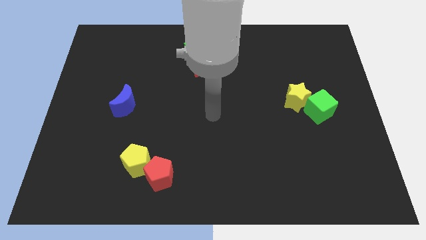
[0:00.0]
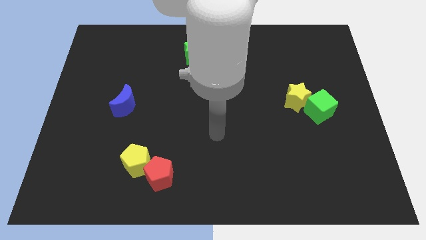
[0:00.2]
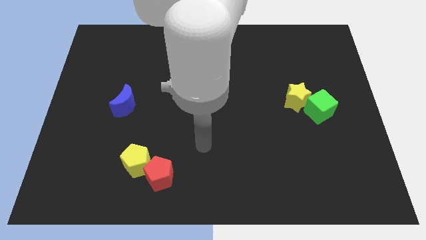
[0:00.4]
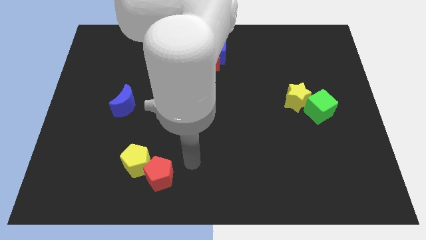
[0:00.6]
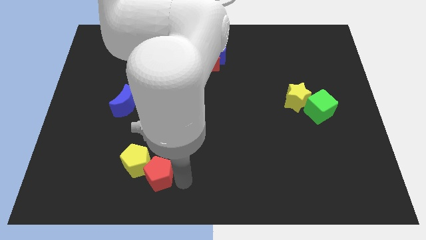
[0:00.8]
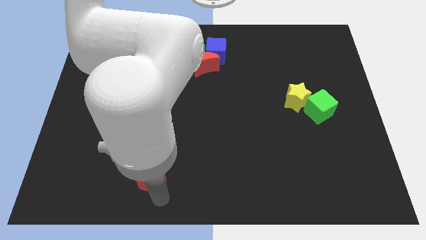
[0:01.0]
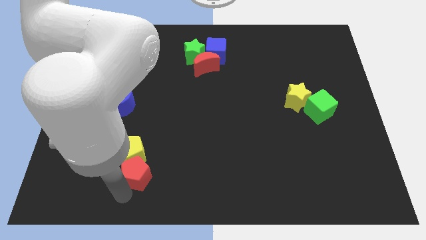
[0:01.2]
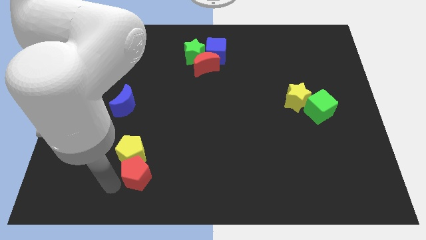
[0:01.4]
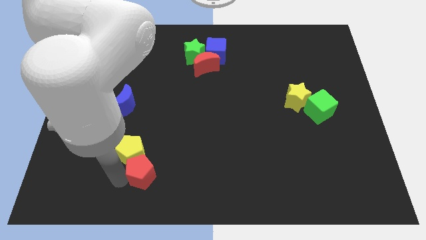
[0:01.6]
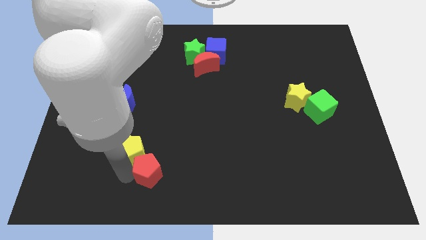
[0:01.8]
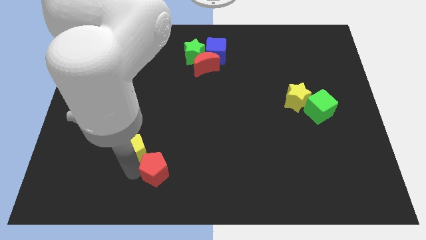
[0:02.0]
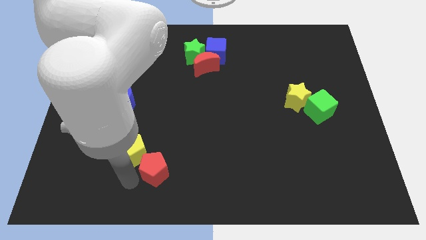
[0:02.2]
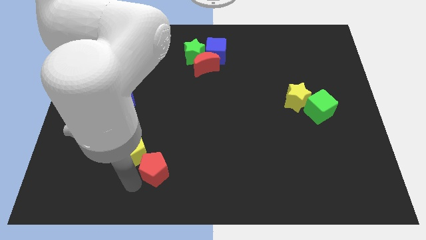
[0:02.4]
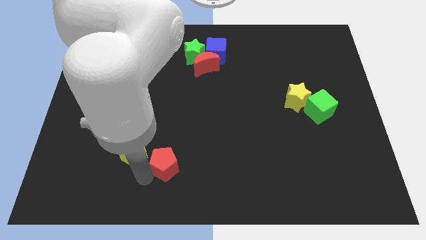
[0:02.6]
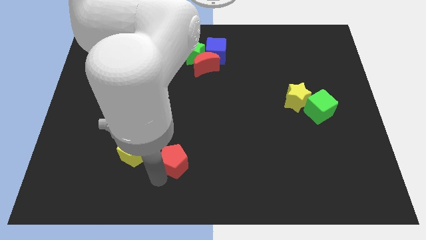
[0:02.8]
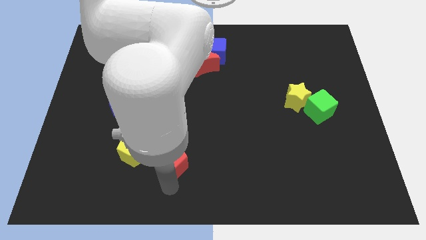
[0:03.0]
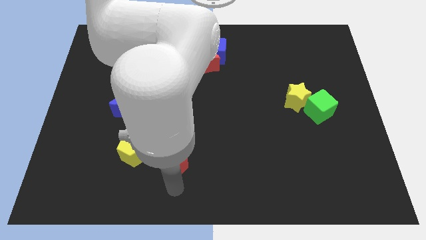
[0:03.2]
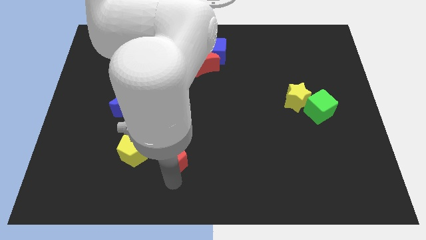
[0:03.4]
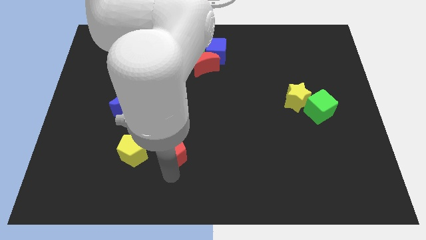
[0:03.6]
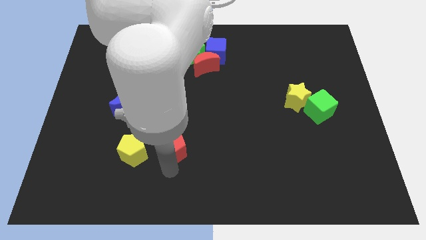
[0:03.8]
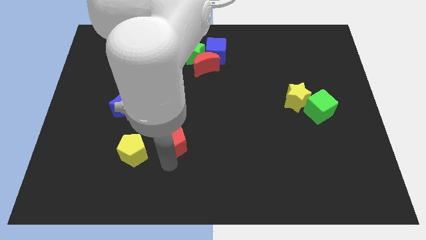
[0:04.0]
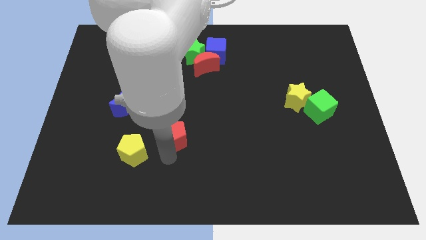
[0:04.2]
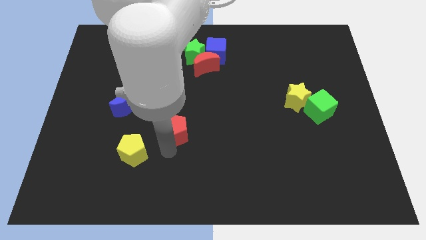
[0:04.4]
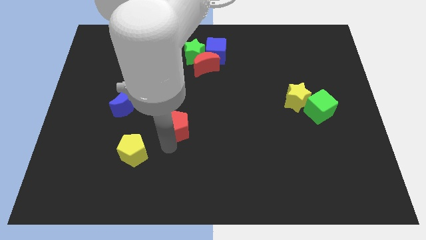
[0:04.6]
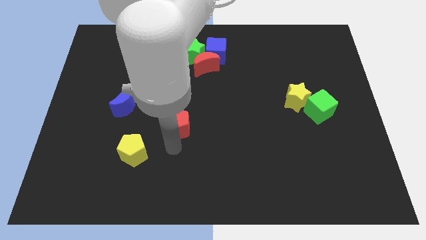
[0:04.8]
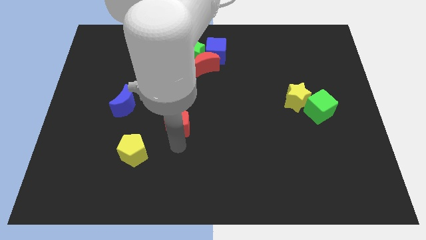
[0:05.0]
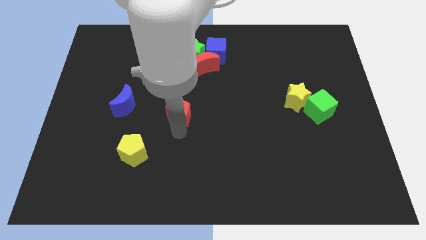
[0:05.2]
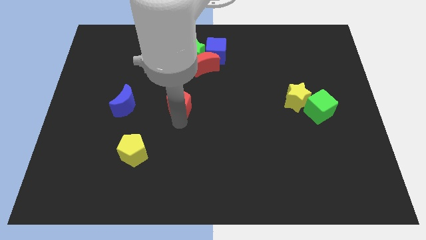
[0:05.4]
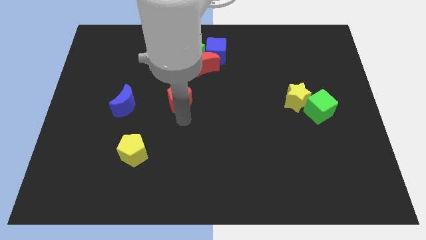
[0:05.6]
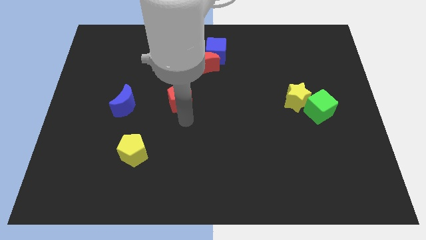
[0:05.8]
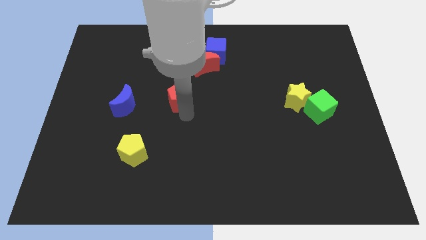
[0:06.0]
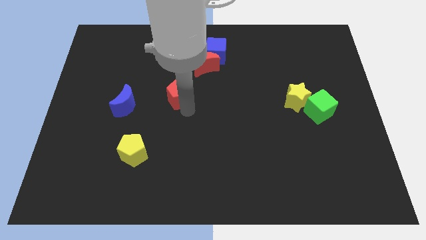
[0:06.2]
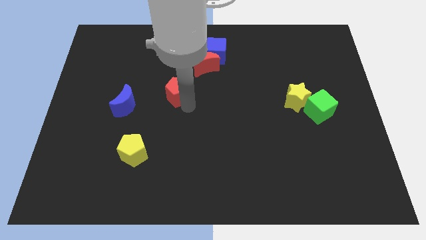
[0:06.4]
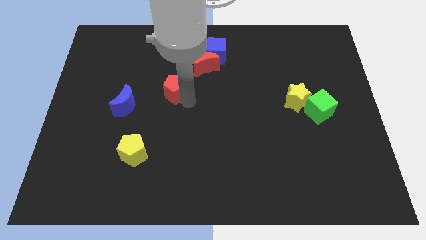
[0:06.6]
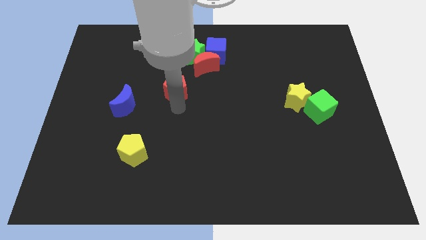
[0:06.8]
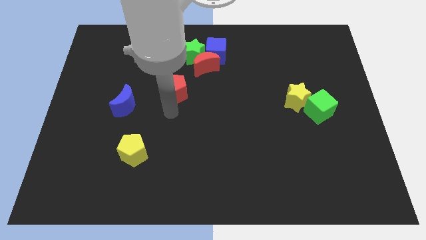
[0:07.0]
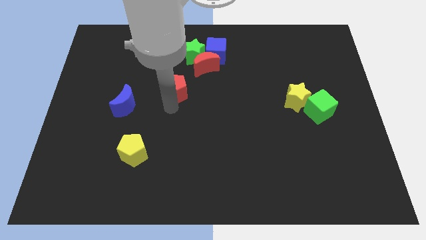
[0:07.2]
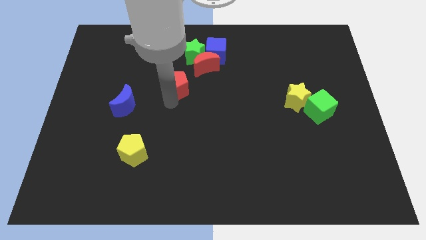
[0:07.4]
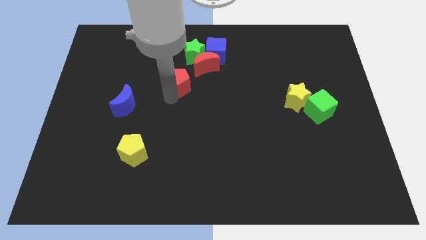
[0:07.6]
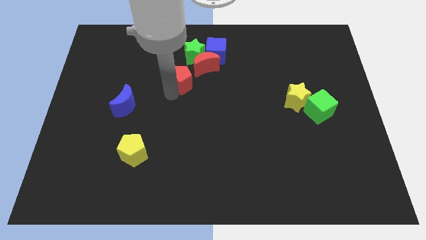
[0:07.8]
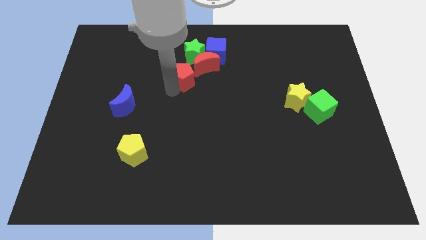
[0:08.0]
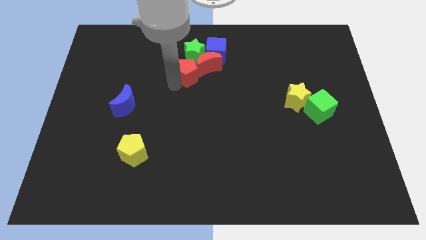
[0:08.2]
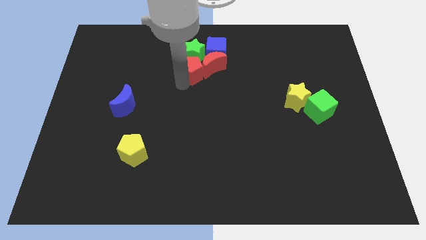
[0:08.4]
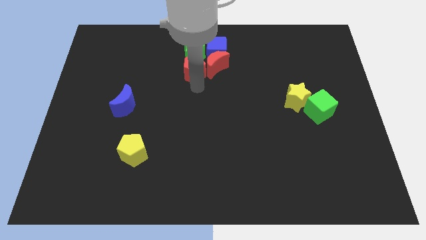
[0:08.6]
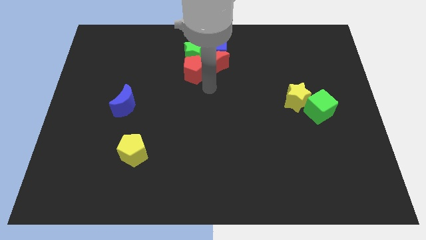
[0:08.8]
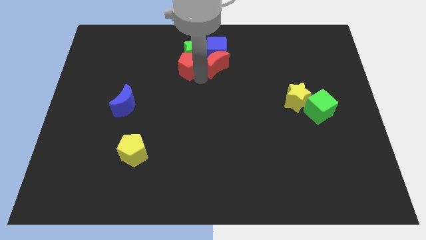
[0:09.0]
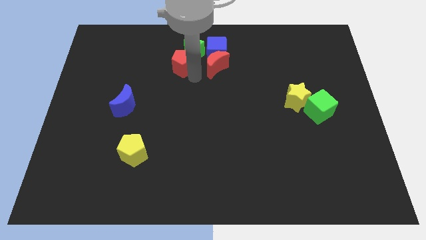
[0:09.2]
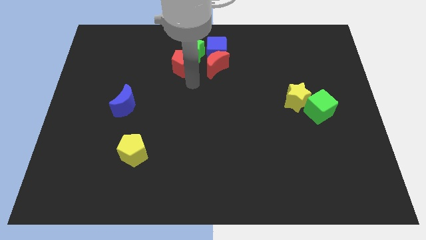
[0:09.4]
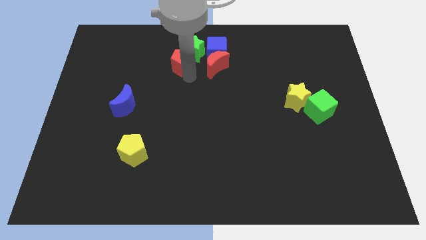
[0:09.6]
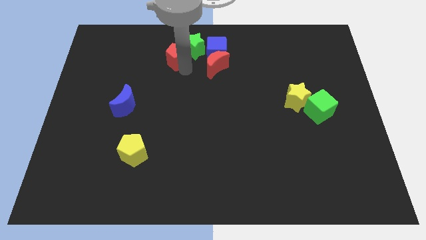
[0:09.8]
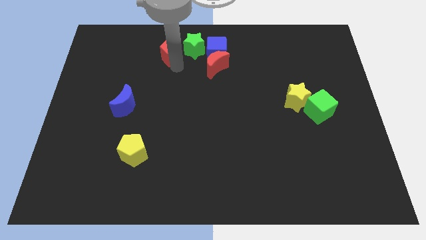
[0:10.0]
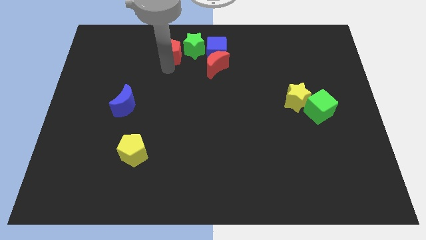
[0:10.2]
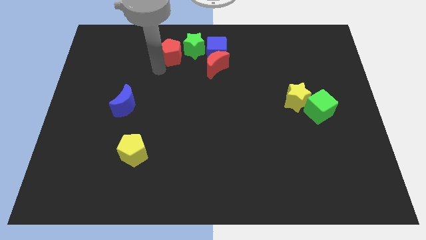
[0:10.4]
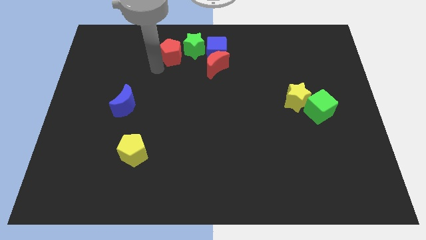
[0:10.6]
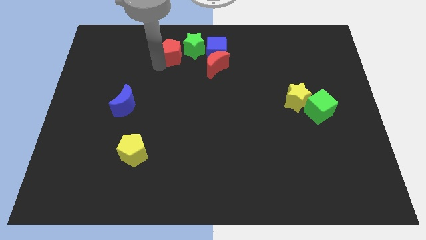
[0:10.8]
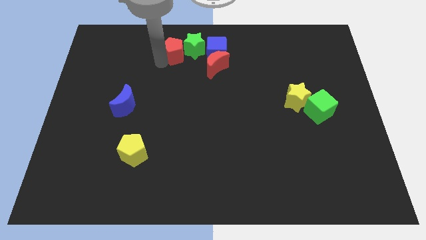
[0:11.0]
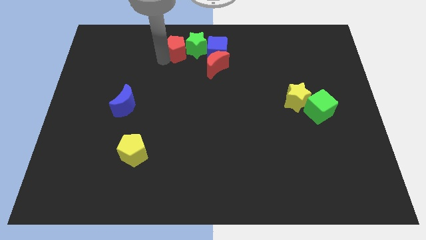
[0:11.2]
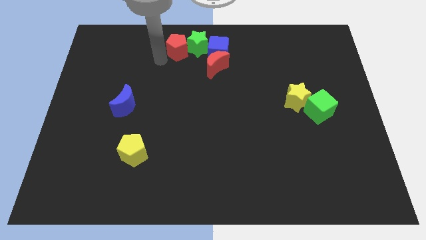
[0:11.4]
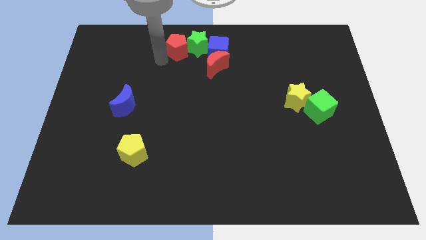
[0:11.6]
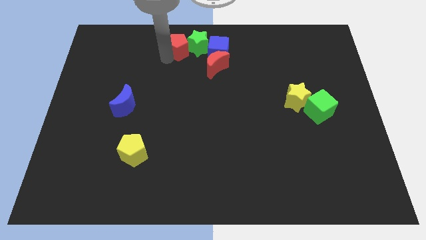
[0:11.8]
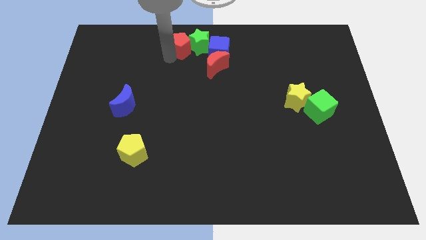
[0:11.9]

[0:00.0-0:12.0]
put the red pentagon to the top side

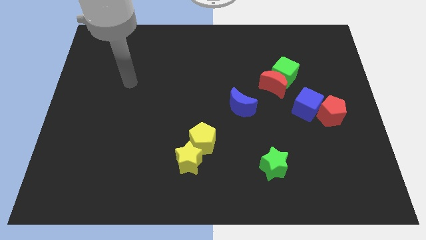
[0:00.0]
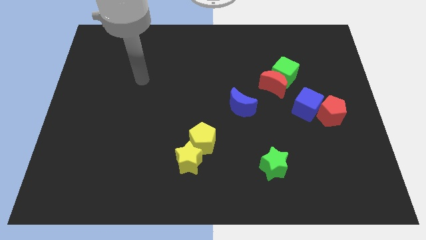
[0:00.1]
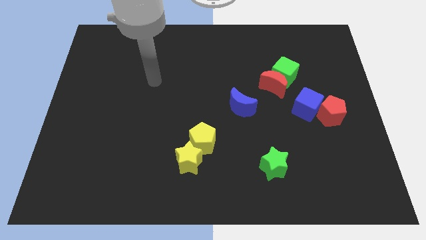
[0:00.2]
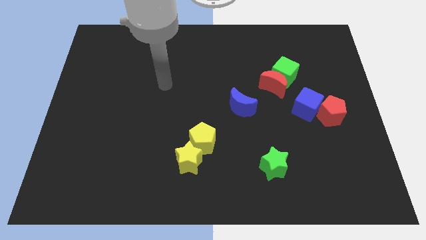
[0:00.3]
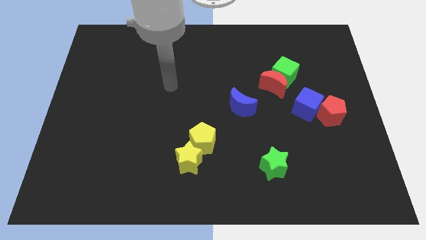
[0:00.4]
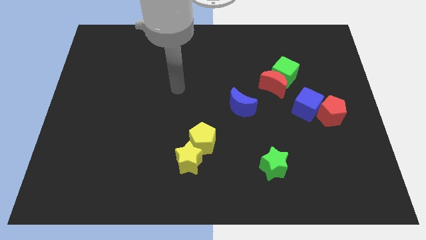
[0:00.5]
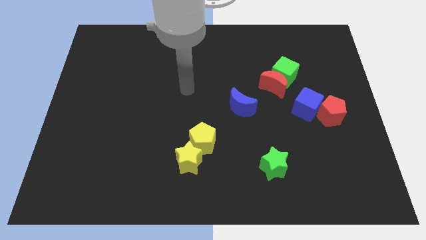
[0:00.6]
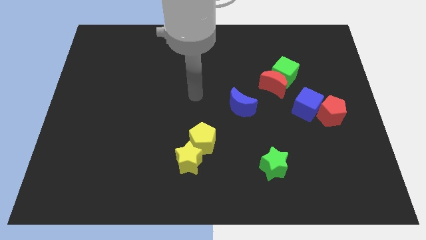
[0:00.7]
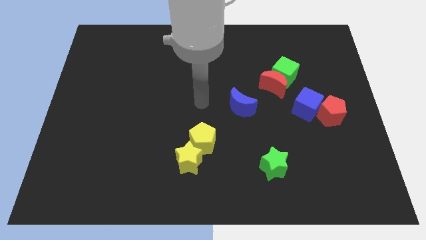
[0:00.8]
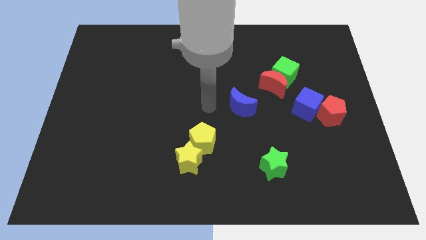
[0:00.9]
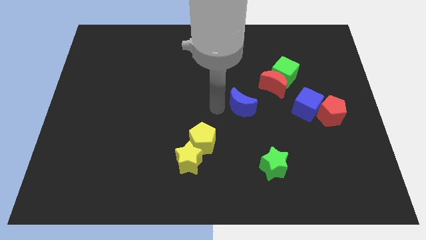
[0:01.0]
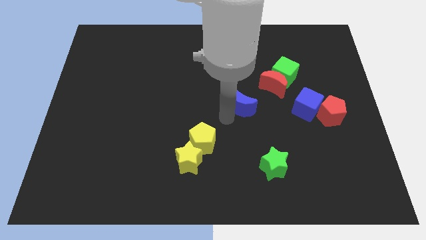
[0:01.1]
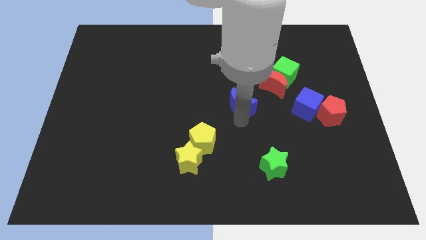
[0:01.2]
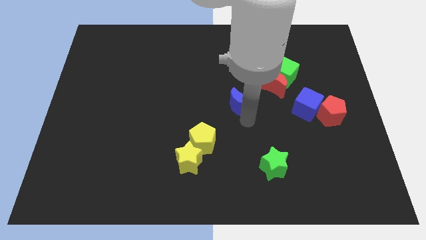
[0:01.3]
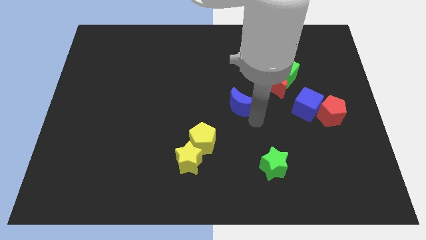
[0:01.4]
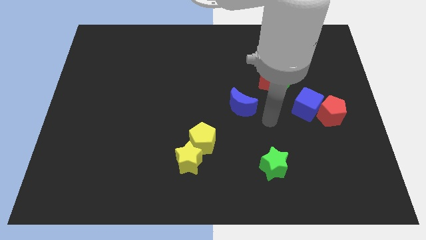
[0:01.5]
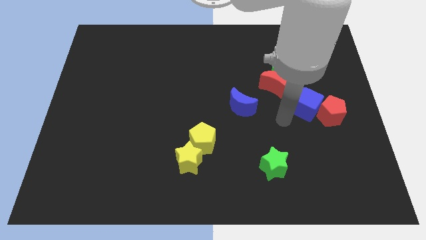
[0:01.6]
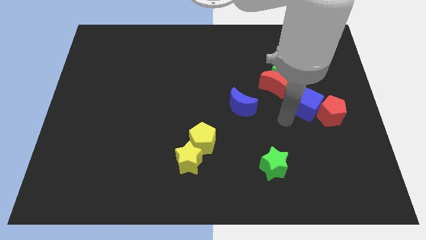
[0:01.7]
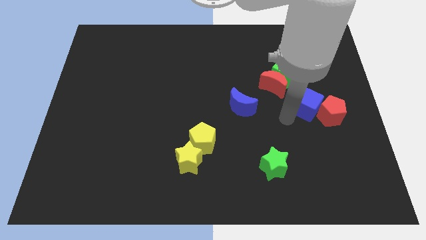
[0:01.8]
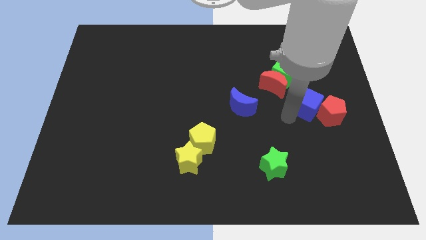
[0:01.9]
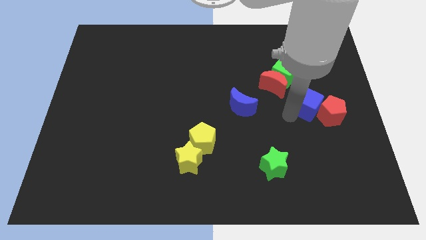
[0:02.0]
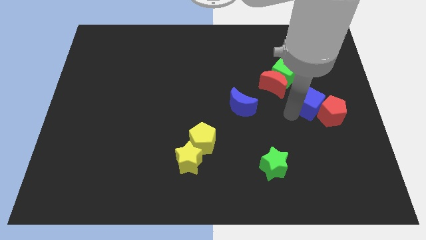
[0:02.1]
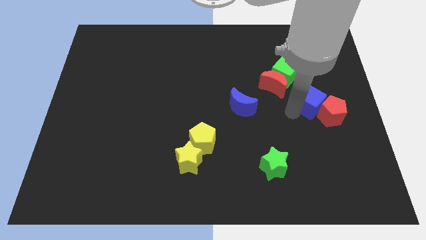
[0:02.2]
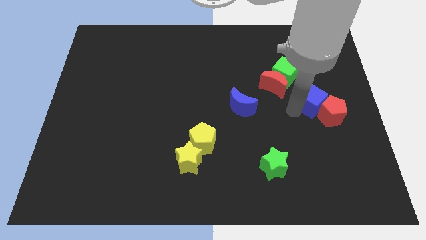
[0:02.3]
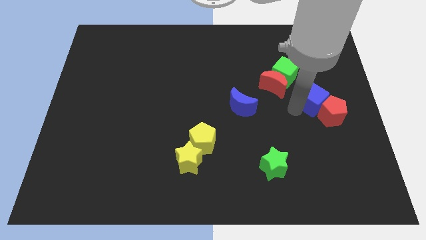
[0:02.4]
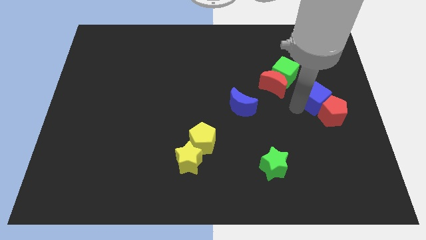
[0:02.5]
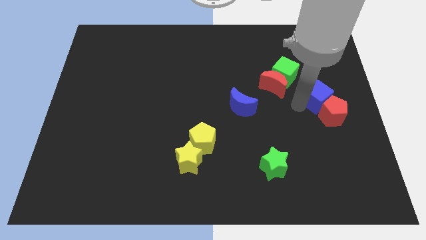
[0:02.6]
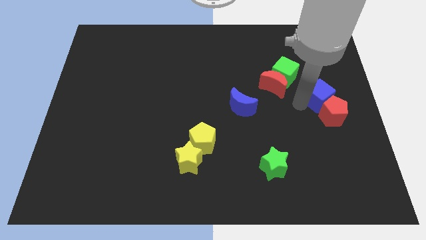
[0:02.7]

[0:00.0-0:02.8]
push the blue cube to the right side
